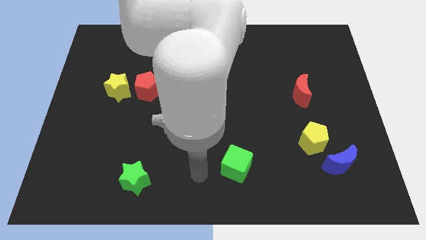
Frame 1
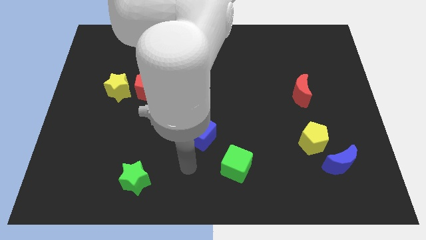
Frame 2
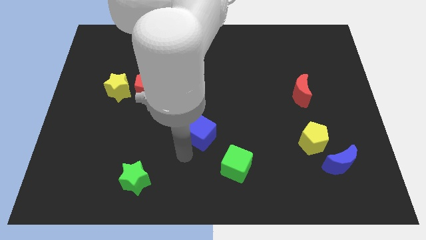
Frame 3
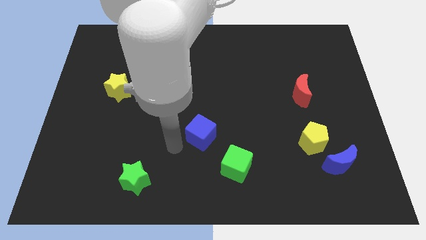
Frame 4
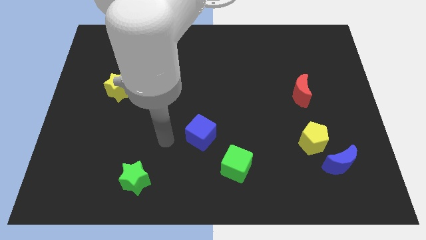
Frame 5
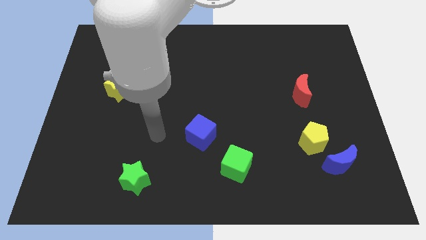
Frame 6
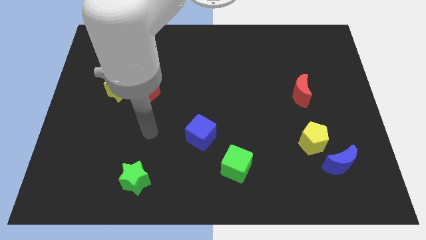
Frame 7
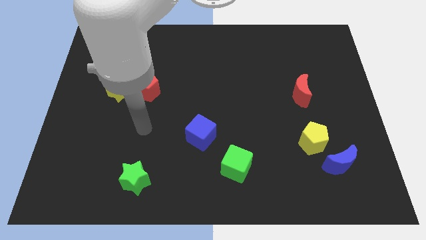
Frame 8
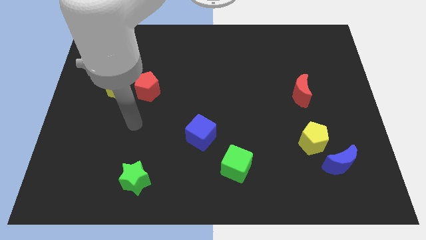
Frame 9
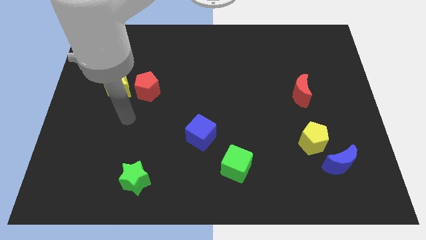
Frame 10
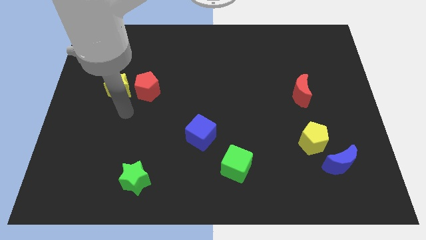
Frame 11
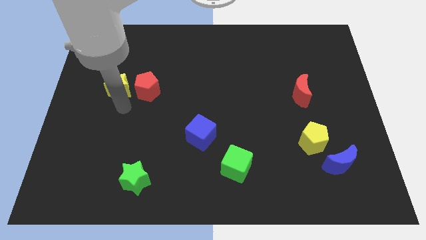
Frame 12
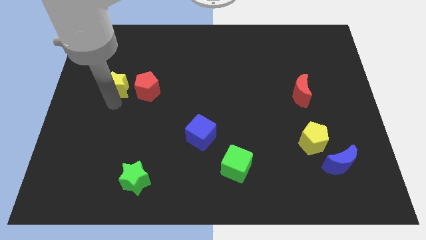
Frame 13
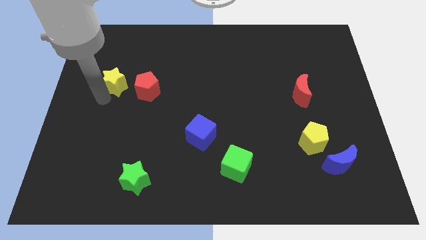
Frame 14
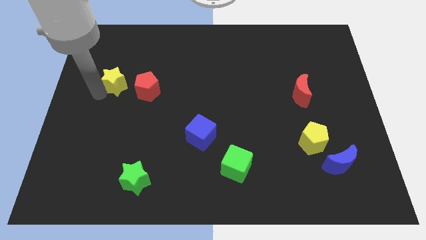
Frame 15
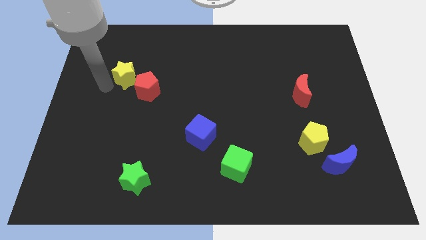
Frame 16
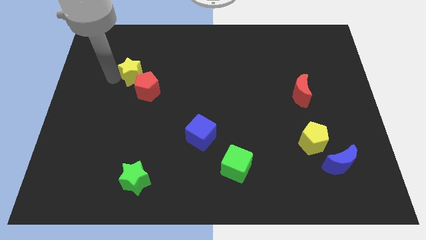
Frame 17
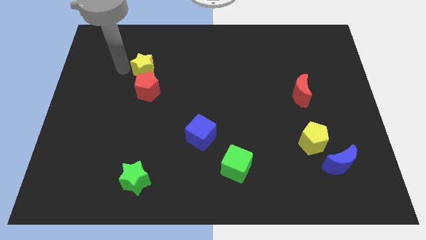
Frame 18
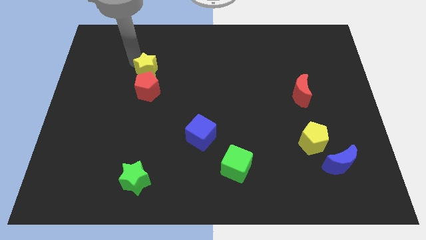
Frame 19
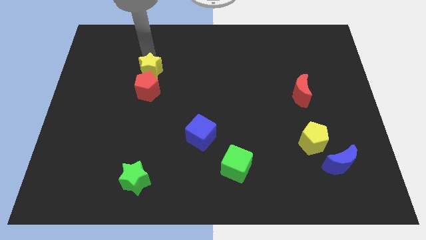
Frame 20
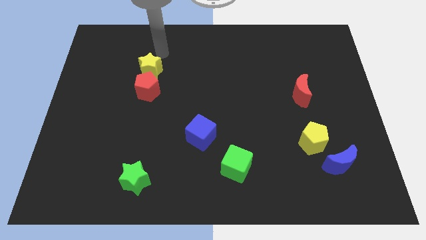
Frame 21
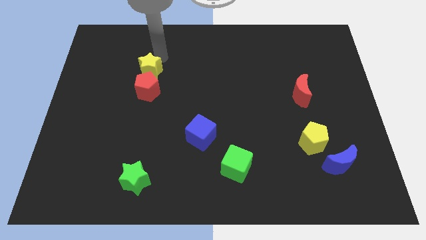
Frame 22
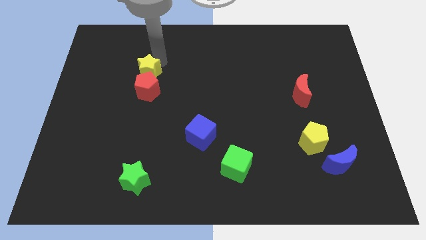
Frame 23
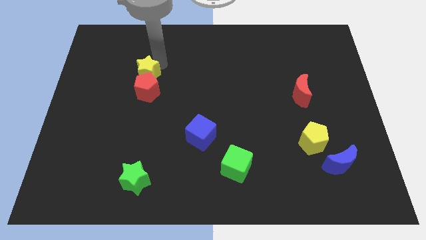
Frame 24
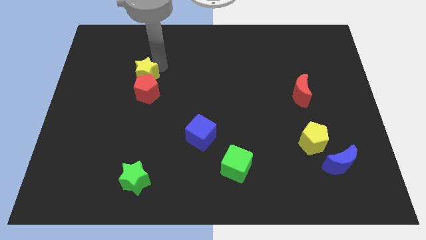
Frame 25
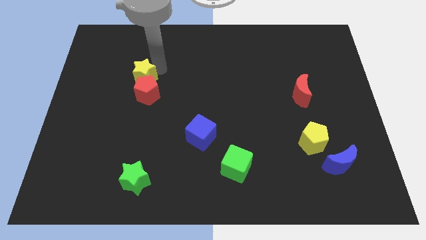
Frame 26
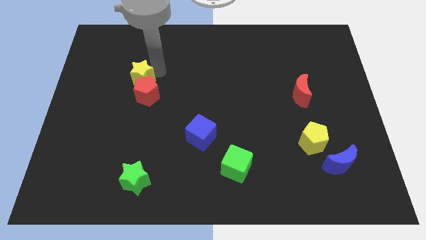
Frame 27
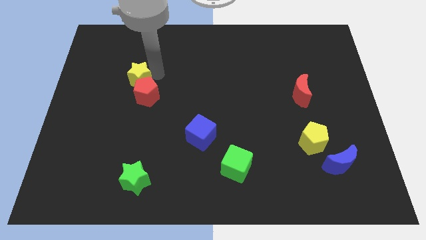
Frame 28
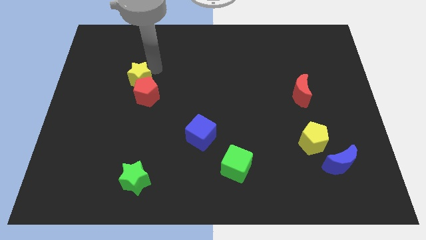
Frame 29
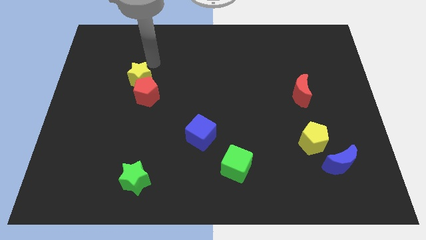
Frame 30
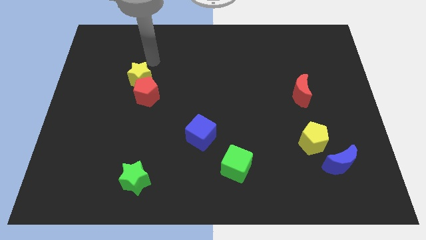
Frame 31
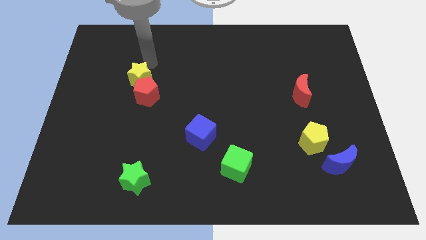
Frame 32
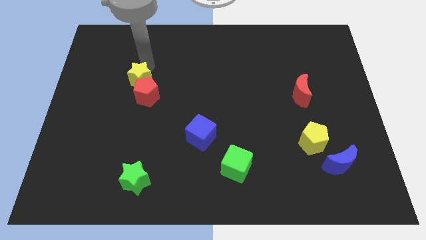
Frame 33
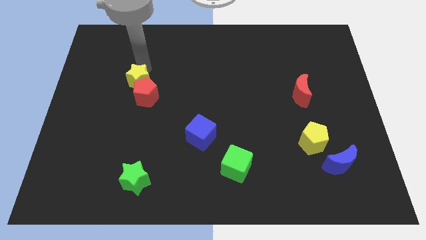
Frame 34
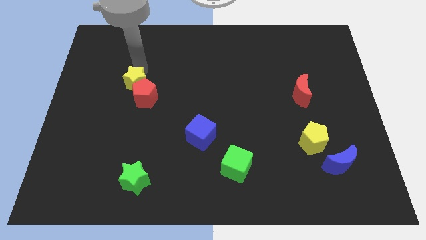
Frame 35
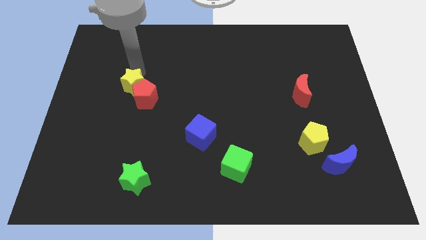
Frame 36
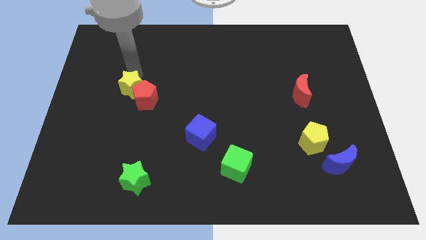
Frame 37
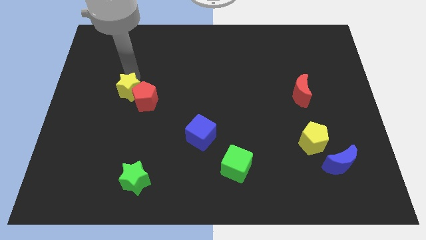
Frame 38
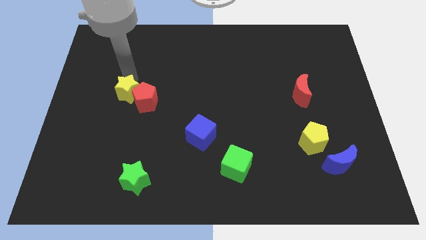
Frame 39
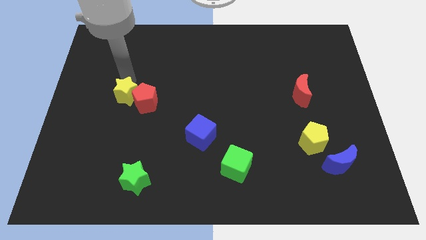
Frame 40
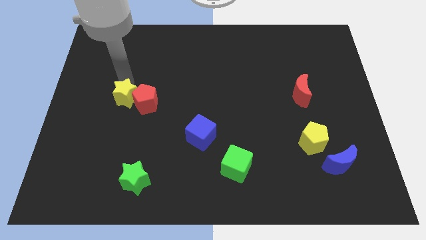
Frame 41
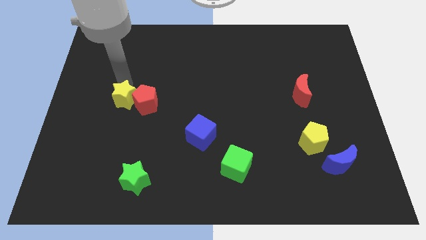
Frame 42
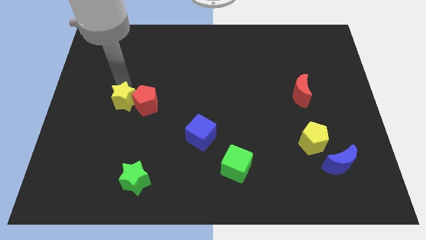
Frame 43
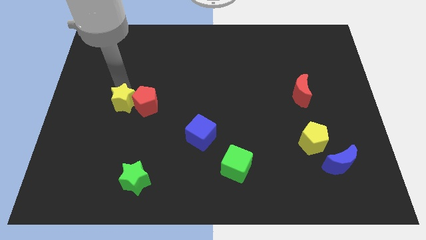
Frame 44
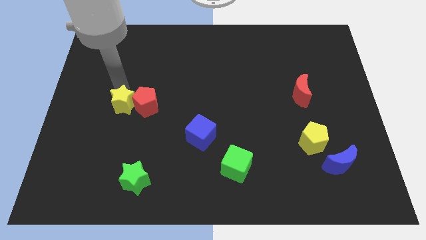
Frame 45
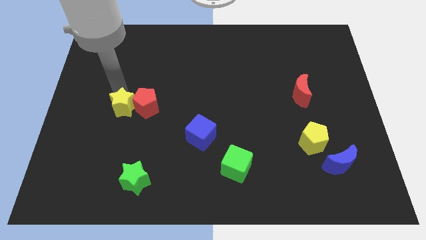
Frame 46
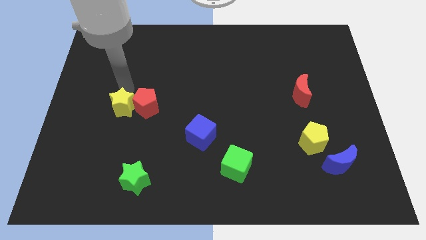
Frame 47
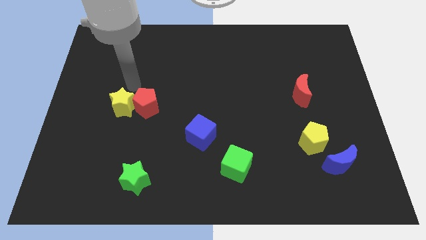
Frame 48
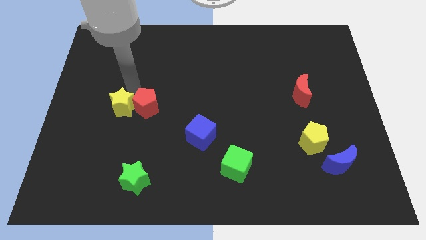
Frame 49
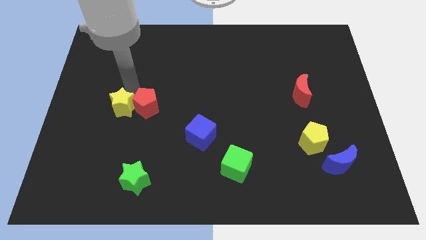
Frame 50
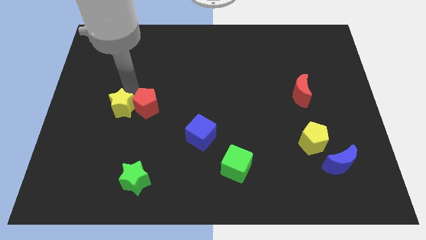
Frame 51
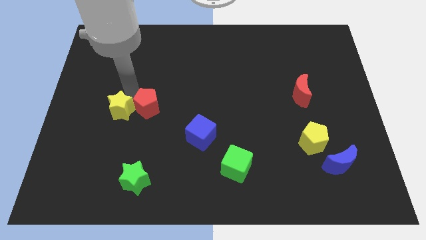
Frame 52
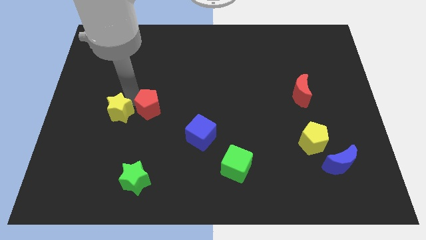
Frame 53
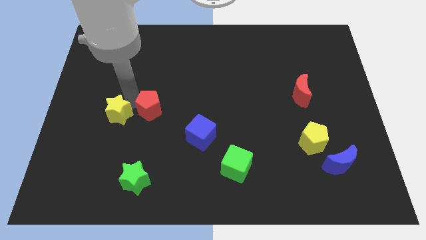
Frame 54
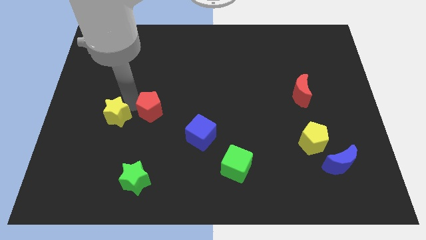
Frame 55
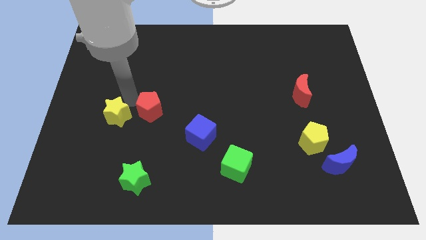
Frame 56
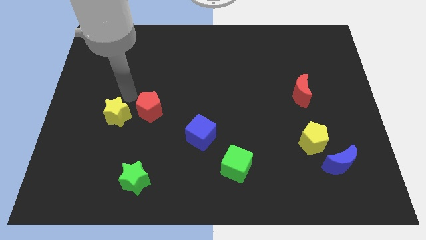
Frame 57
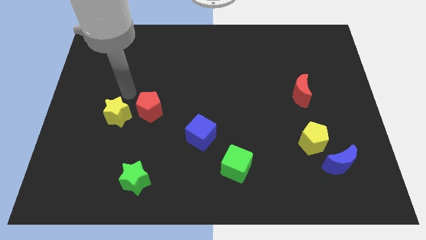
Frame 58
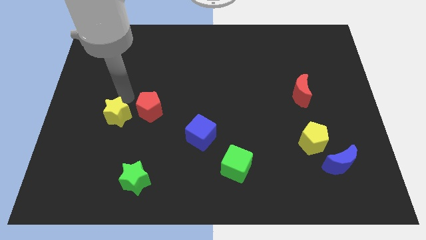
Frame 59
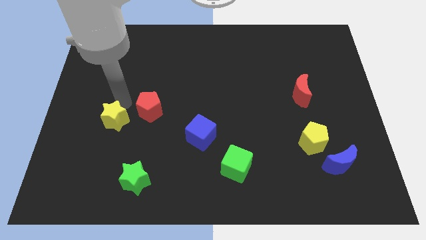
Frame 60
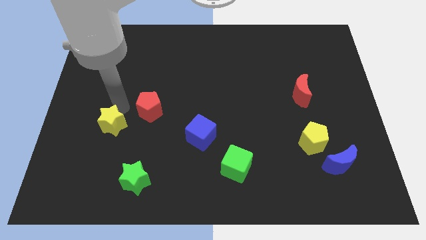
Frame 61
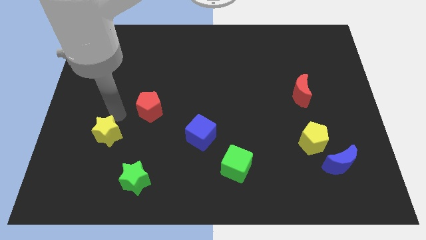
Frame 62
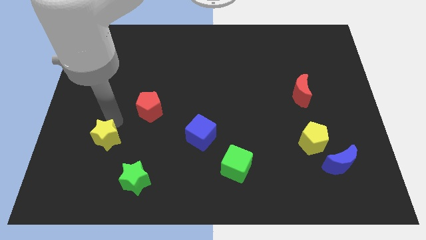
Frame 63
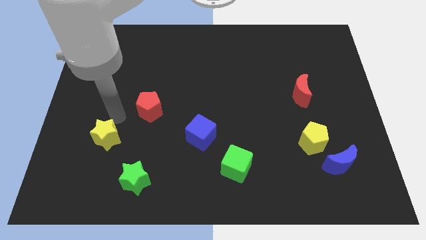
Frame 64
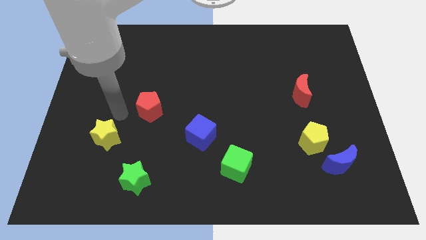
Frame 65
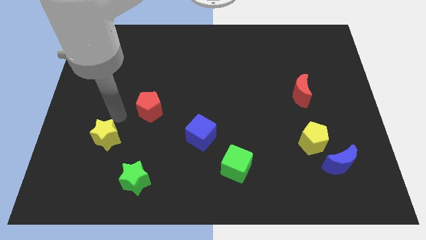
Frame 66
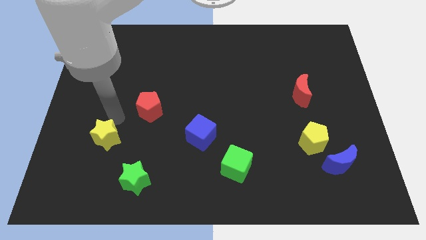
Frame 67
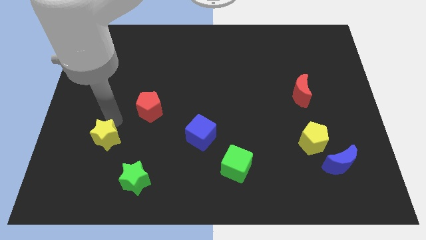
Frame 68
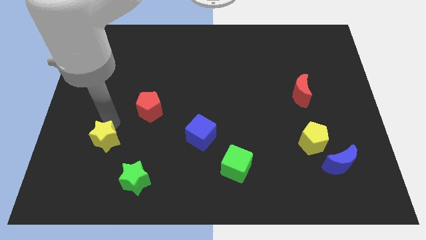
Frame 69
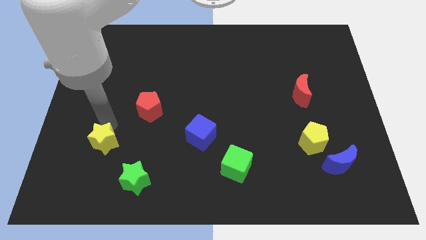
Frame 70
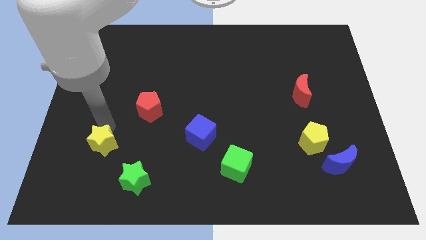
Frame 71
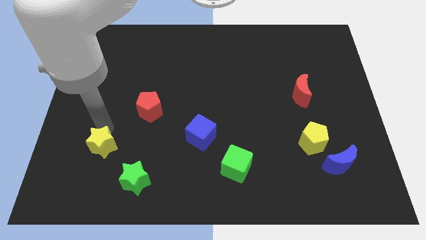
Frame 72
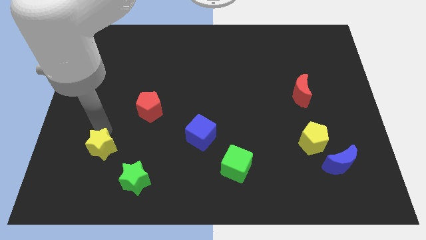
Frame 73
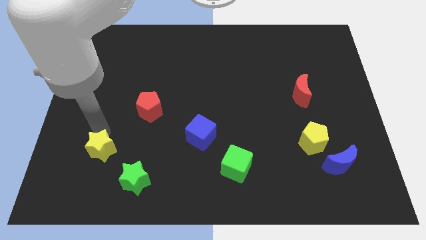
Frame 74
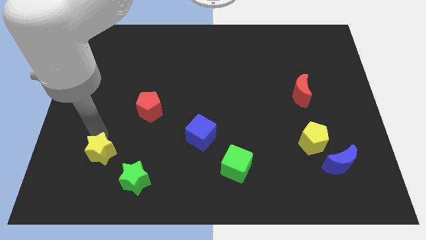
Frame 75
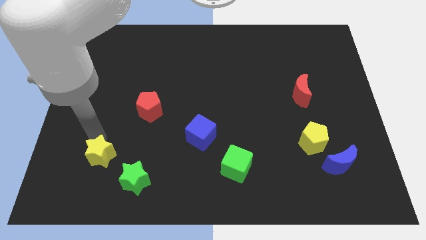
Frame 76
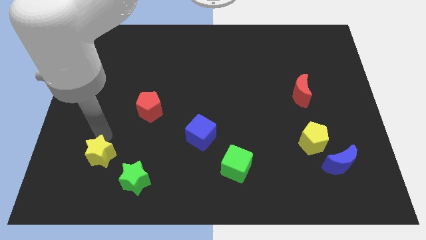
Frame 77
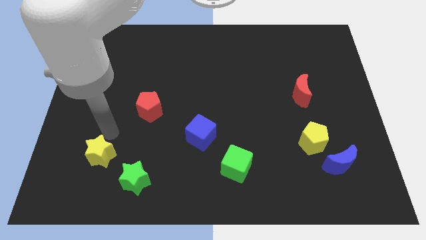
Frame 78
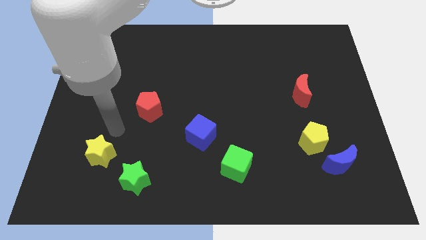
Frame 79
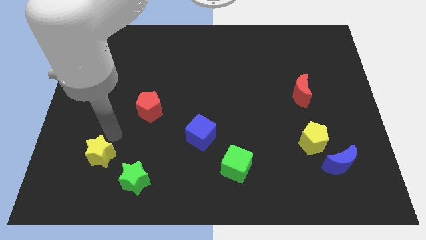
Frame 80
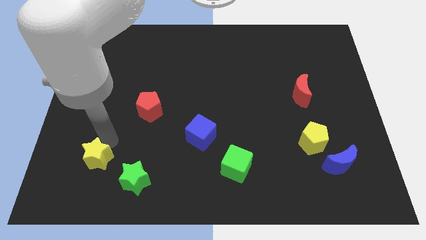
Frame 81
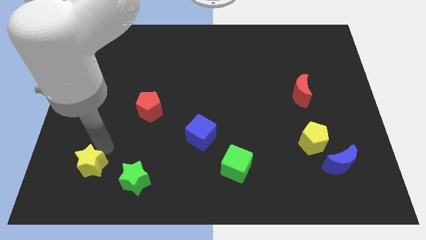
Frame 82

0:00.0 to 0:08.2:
move the yellow star to the left side of the green star
